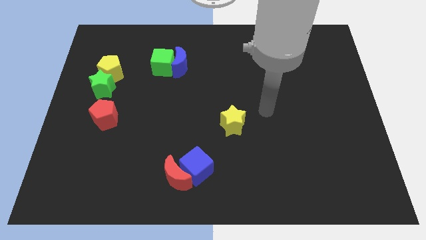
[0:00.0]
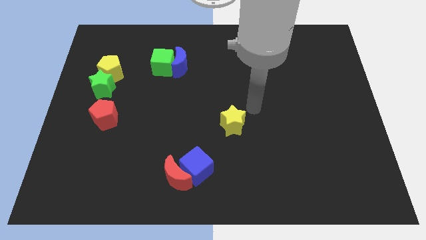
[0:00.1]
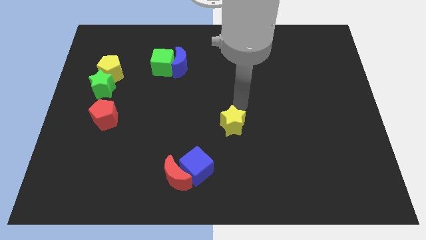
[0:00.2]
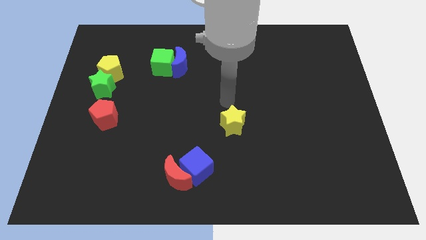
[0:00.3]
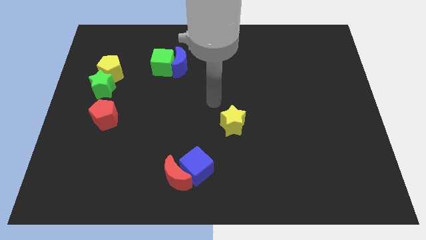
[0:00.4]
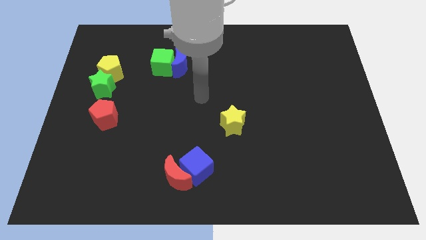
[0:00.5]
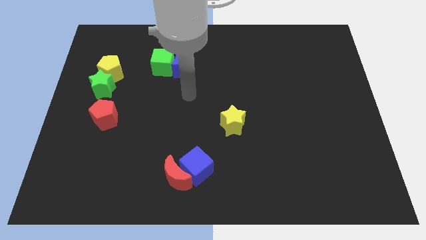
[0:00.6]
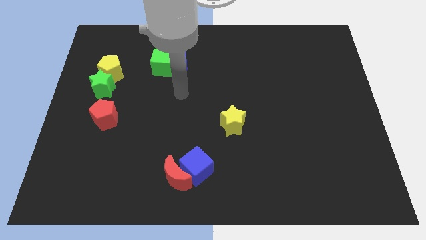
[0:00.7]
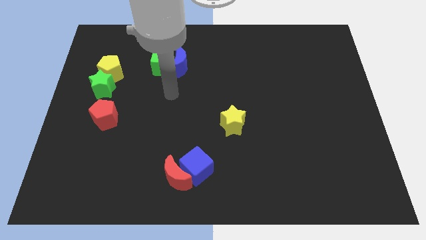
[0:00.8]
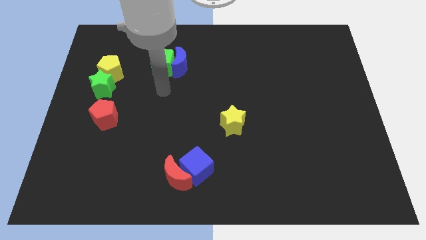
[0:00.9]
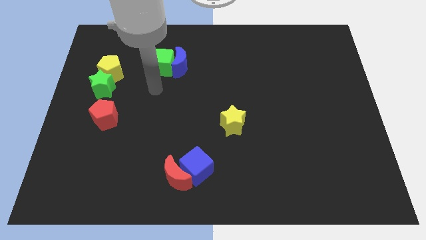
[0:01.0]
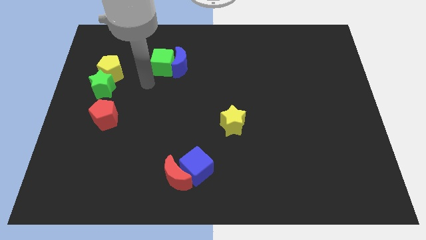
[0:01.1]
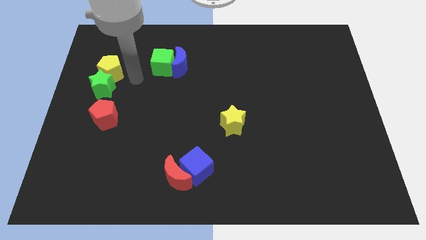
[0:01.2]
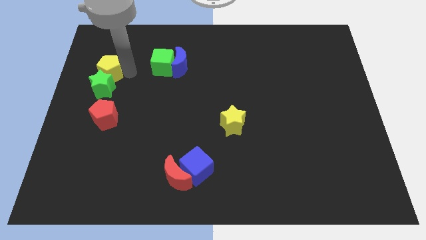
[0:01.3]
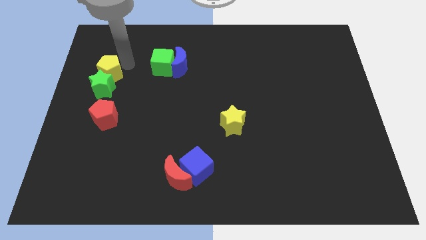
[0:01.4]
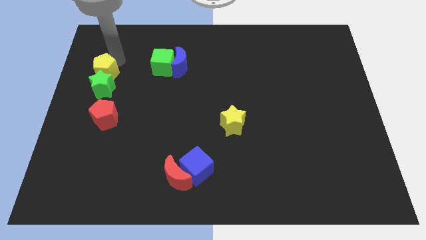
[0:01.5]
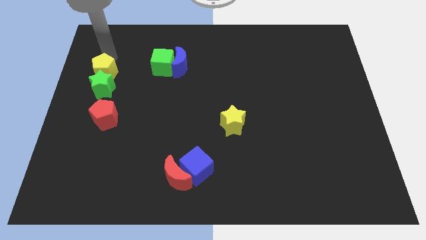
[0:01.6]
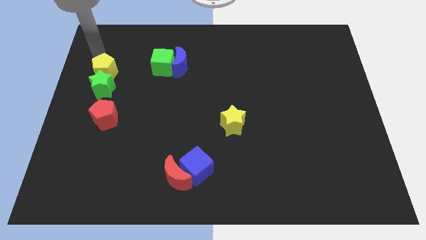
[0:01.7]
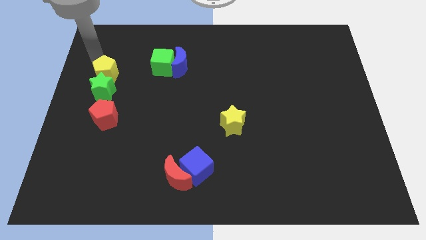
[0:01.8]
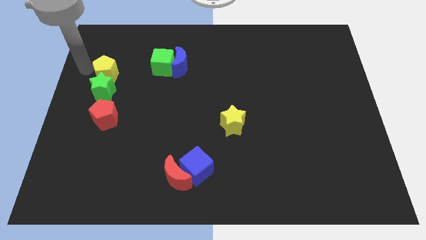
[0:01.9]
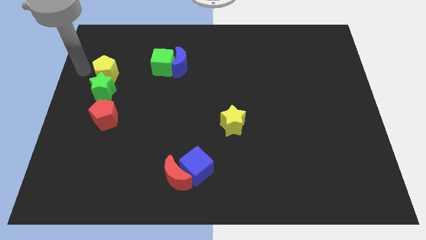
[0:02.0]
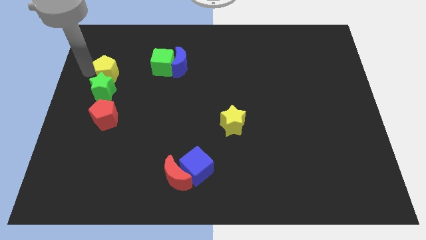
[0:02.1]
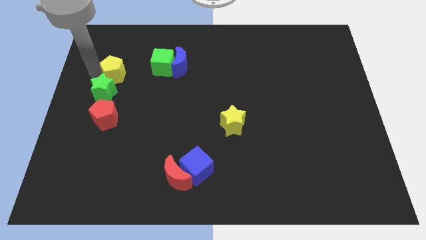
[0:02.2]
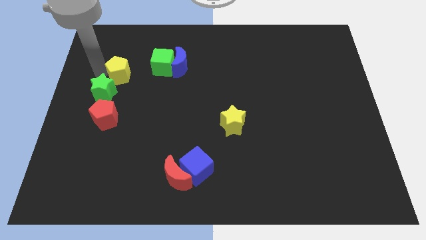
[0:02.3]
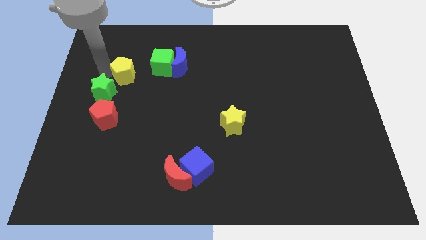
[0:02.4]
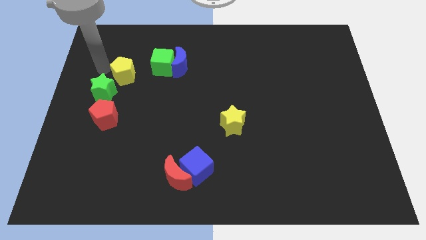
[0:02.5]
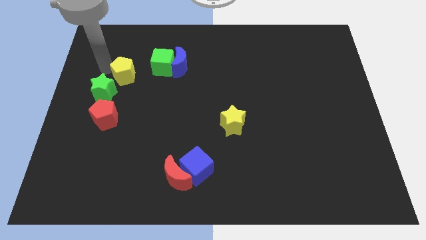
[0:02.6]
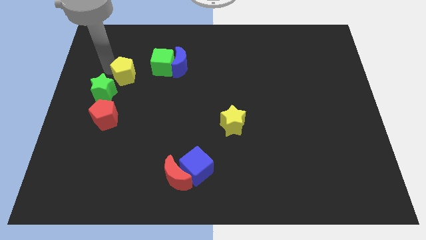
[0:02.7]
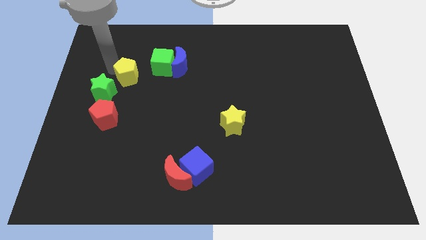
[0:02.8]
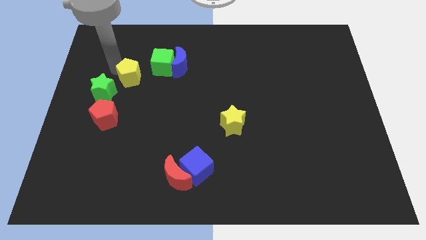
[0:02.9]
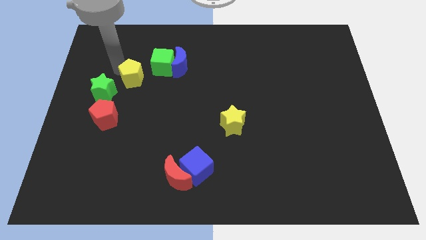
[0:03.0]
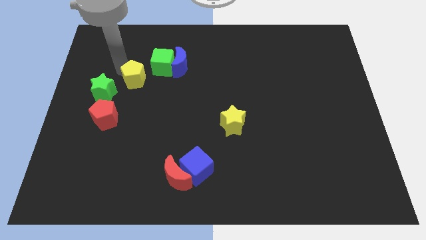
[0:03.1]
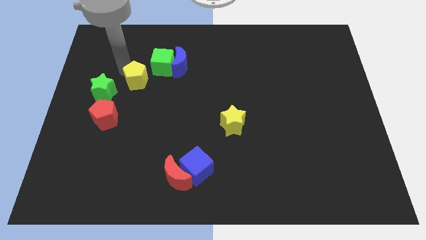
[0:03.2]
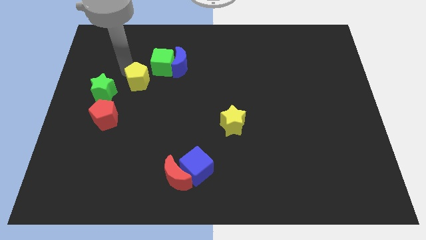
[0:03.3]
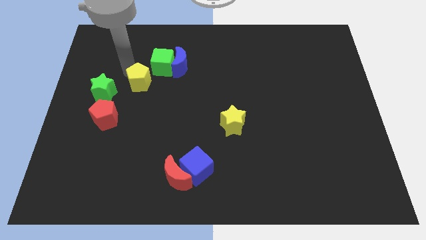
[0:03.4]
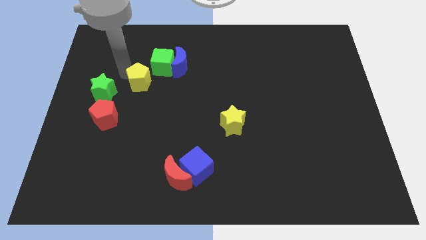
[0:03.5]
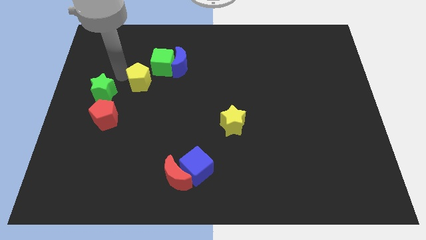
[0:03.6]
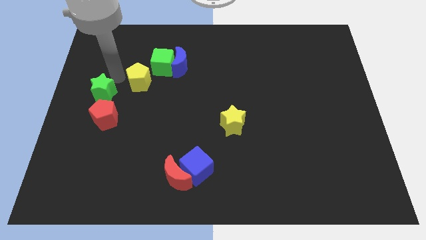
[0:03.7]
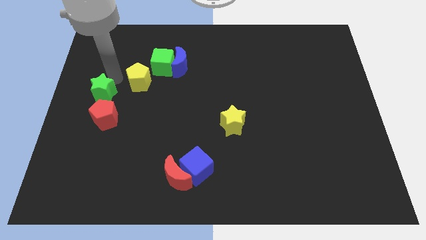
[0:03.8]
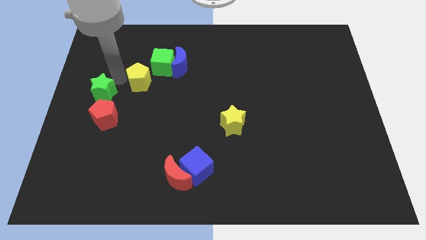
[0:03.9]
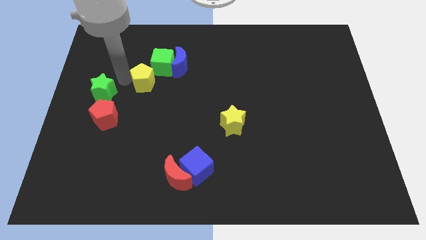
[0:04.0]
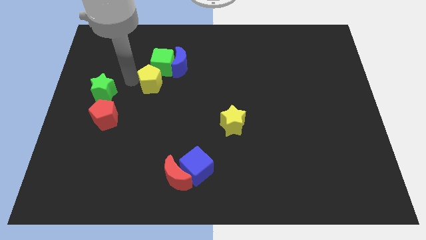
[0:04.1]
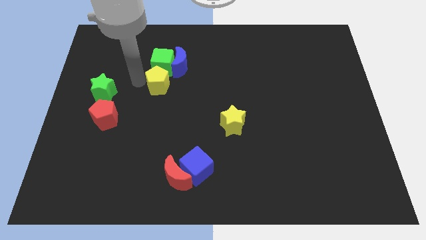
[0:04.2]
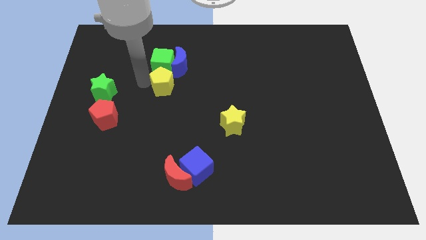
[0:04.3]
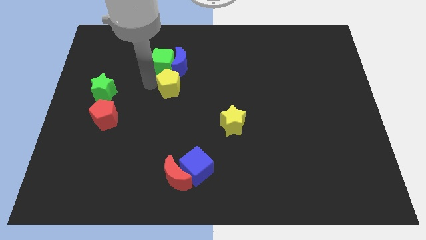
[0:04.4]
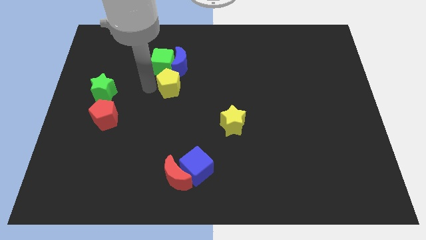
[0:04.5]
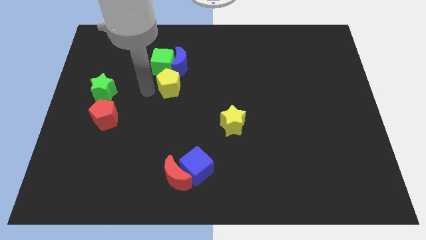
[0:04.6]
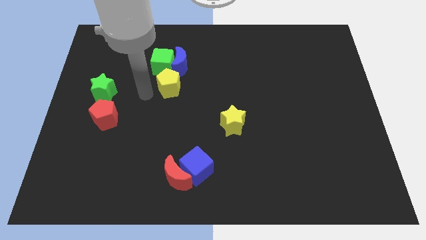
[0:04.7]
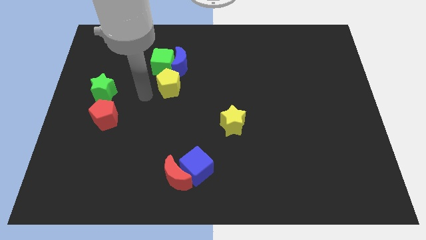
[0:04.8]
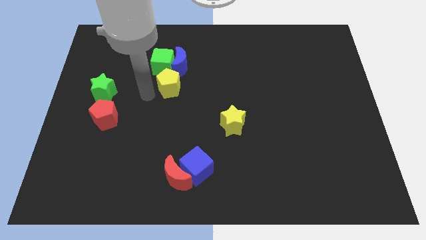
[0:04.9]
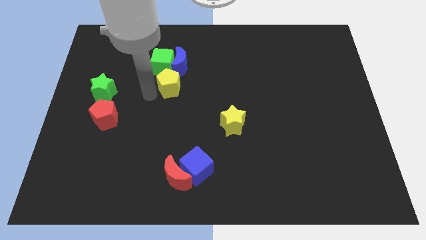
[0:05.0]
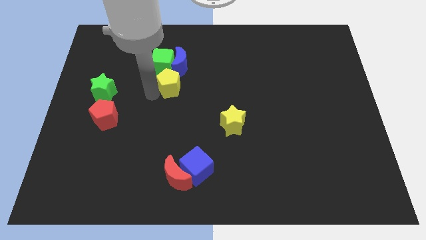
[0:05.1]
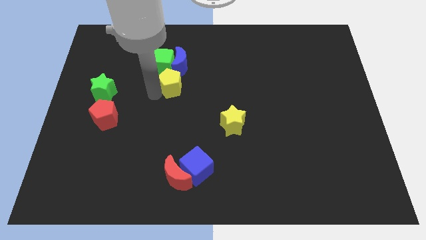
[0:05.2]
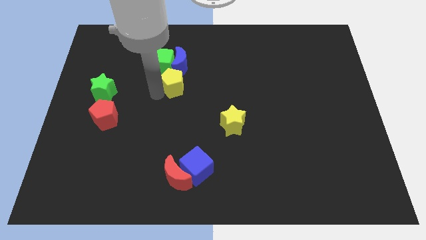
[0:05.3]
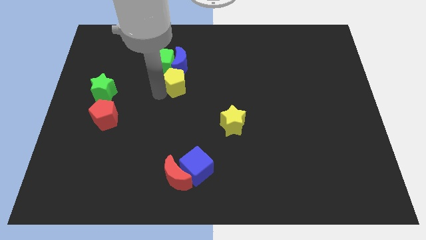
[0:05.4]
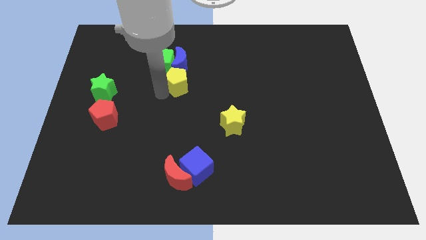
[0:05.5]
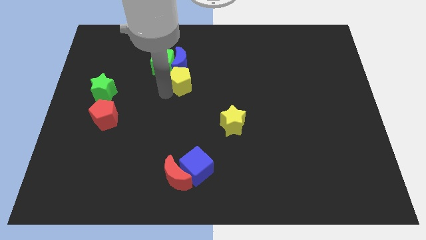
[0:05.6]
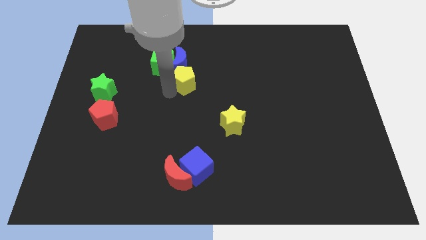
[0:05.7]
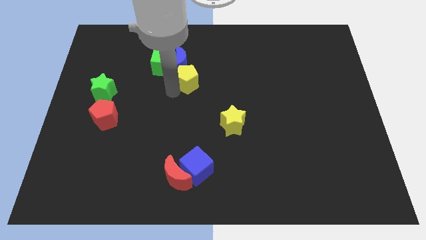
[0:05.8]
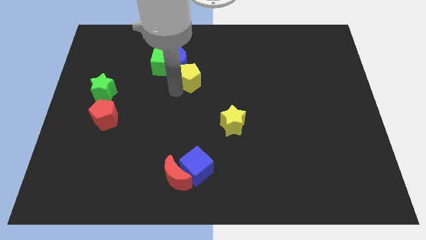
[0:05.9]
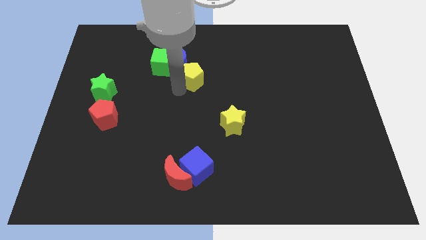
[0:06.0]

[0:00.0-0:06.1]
slide the yellow pentagon right of the green cube

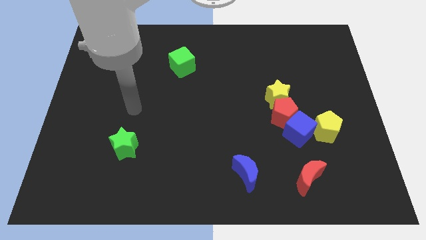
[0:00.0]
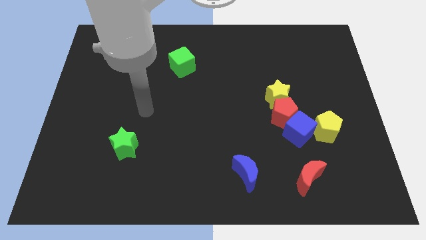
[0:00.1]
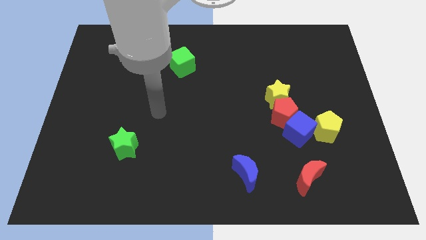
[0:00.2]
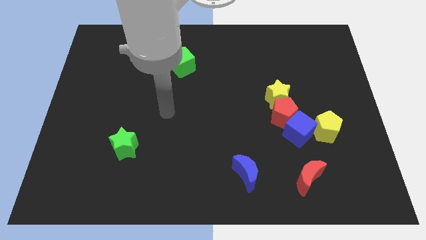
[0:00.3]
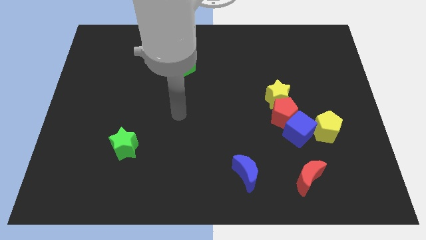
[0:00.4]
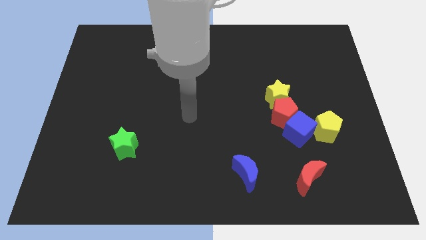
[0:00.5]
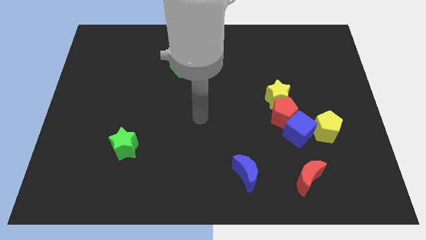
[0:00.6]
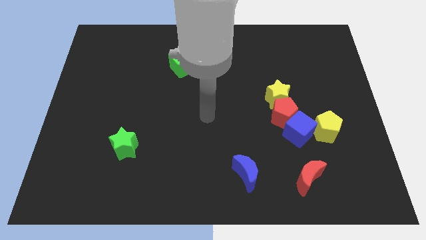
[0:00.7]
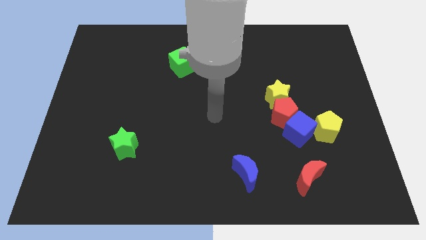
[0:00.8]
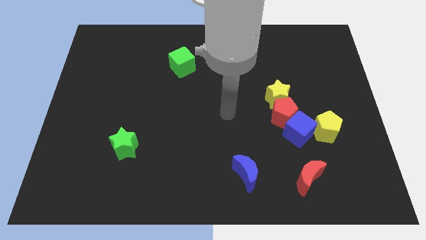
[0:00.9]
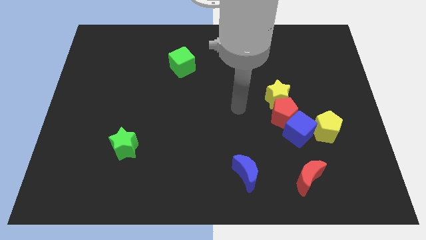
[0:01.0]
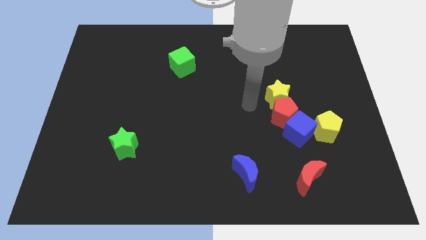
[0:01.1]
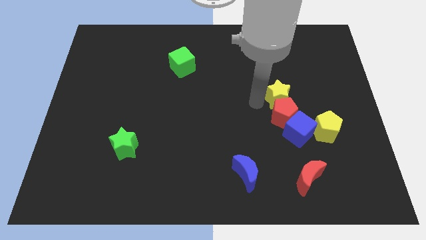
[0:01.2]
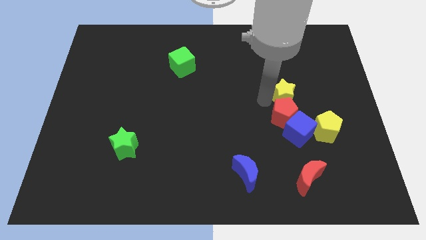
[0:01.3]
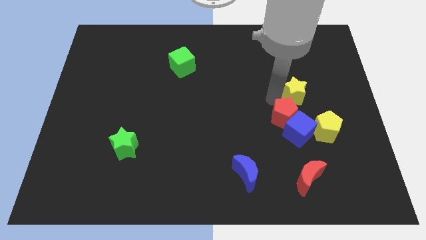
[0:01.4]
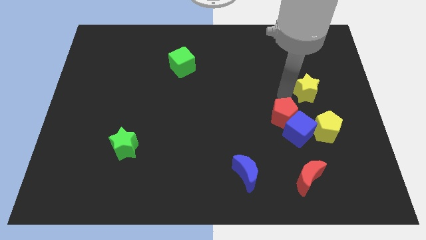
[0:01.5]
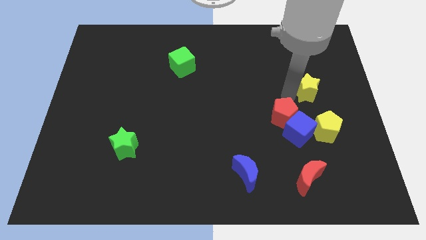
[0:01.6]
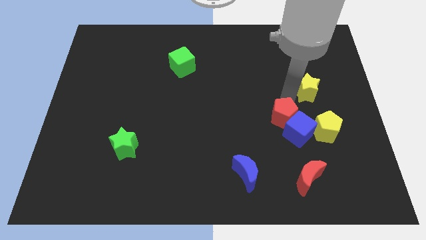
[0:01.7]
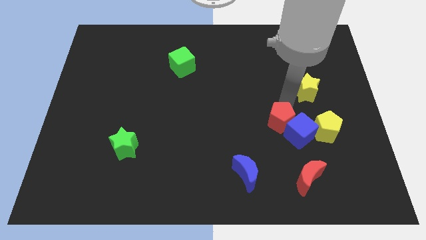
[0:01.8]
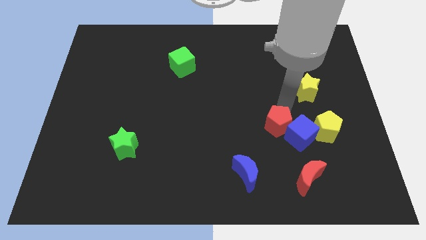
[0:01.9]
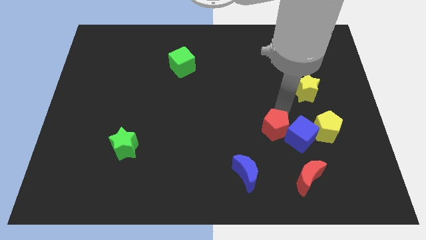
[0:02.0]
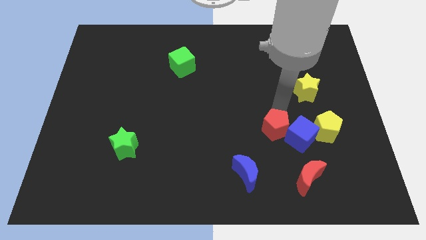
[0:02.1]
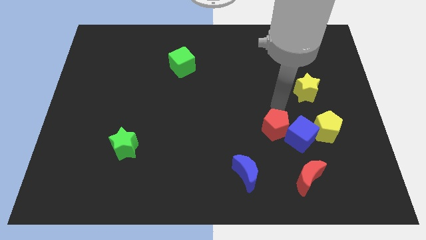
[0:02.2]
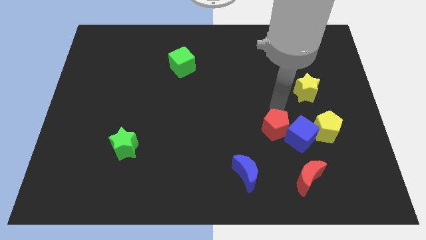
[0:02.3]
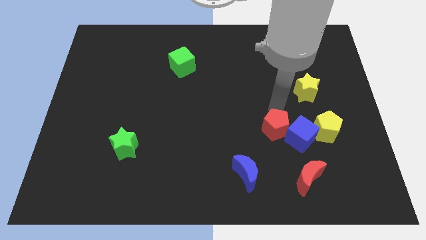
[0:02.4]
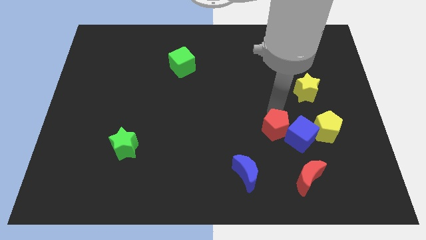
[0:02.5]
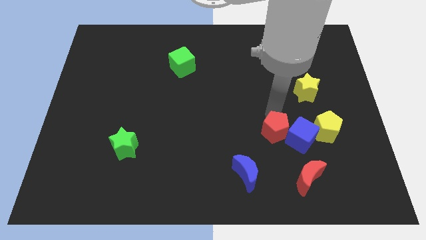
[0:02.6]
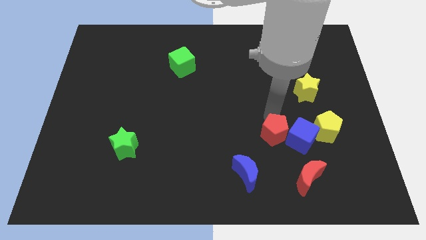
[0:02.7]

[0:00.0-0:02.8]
move the red pentagon to the top right of the blue moon
